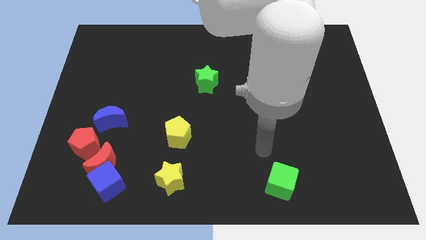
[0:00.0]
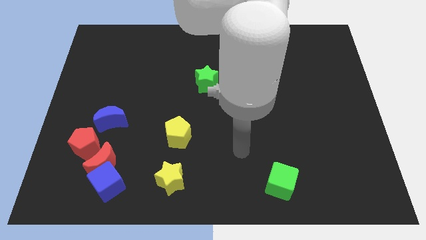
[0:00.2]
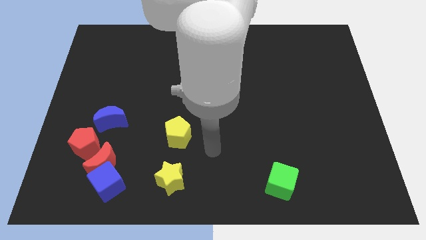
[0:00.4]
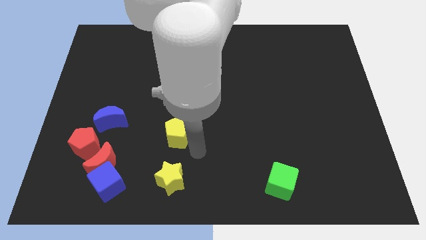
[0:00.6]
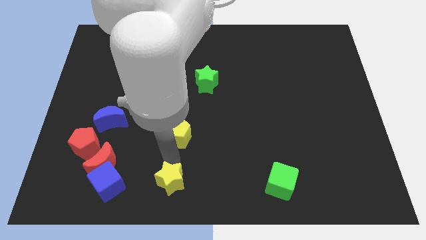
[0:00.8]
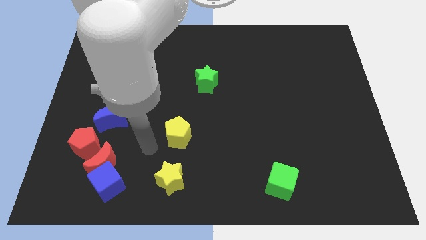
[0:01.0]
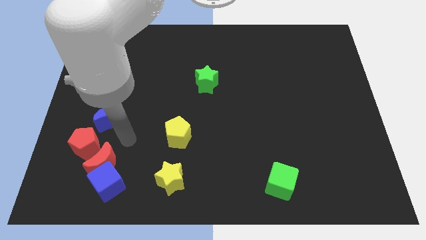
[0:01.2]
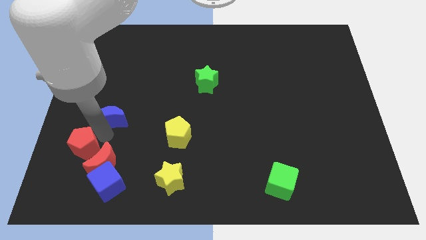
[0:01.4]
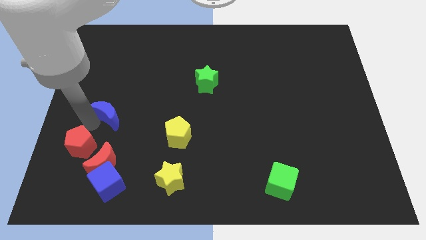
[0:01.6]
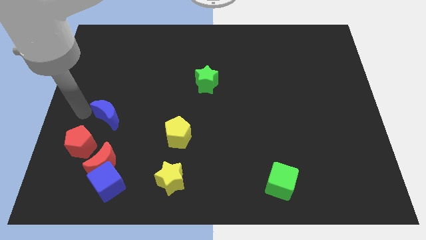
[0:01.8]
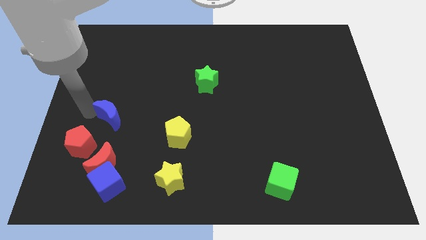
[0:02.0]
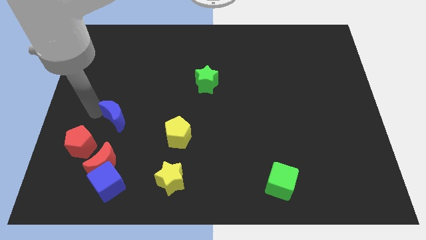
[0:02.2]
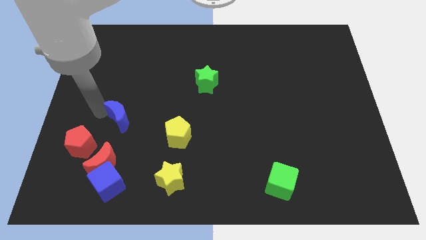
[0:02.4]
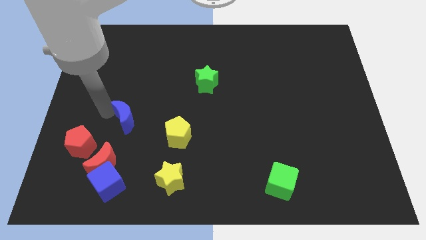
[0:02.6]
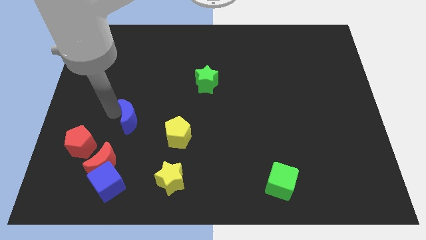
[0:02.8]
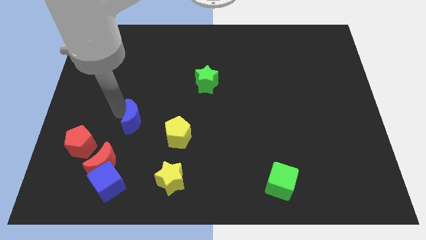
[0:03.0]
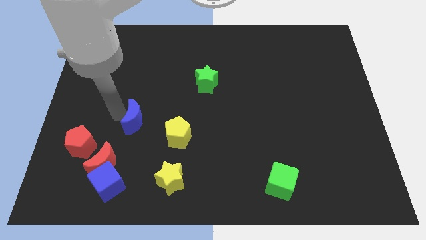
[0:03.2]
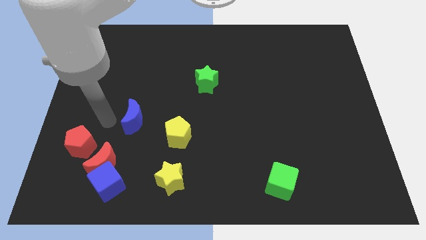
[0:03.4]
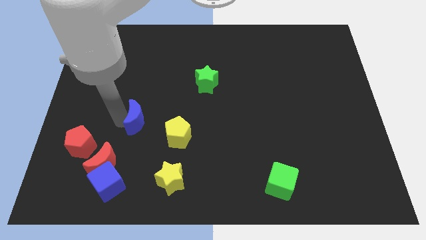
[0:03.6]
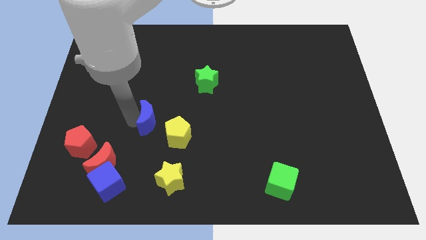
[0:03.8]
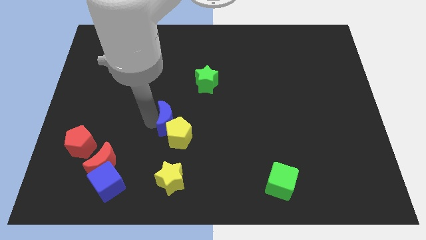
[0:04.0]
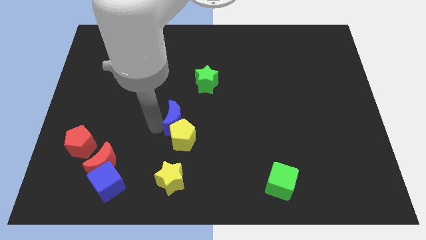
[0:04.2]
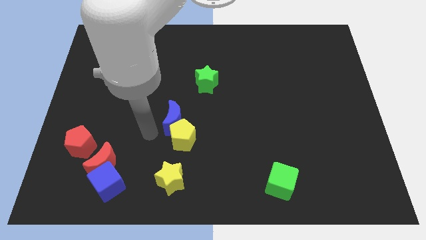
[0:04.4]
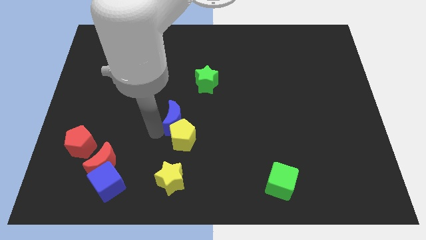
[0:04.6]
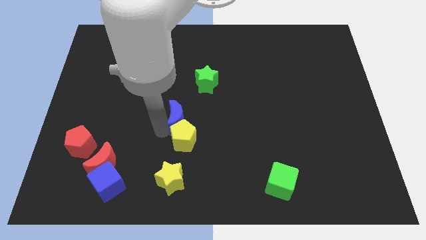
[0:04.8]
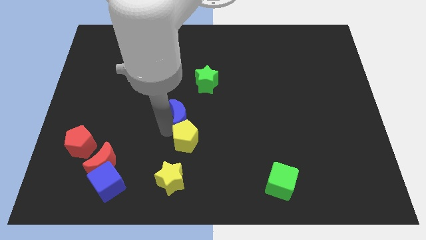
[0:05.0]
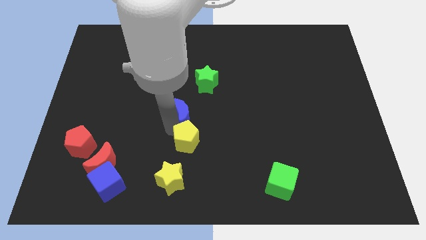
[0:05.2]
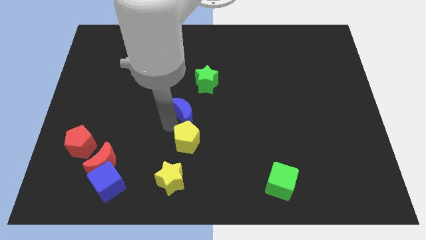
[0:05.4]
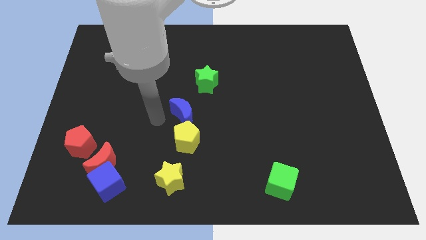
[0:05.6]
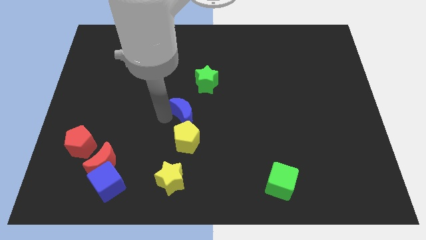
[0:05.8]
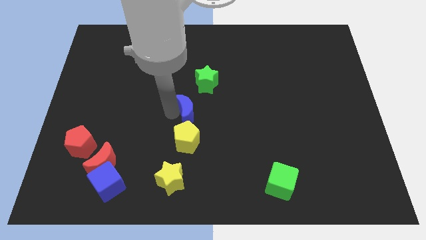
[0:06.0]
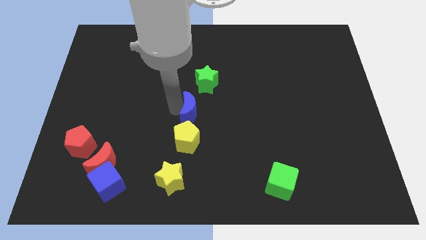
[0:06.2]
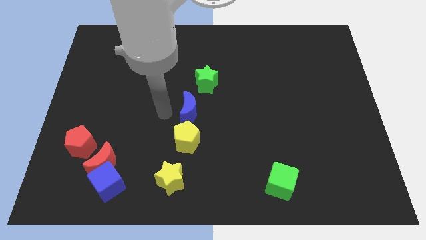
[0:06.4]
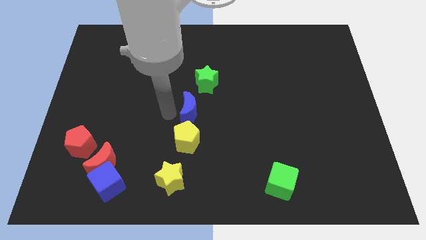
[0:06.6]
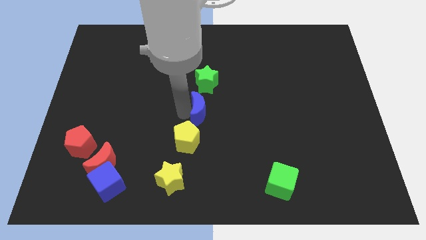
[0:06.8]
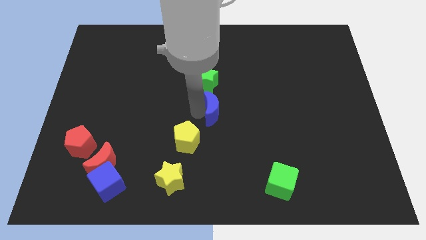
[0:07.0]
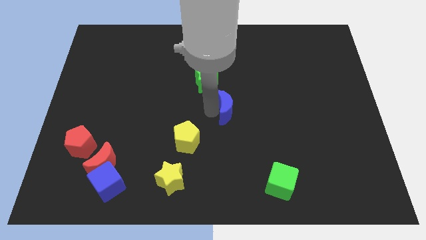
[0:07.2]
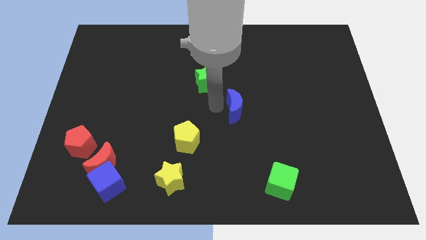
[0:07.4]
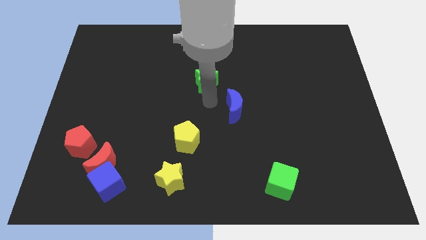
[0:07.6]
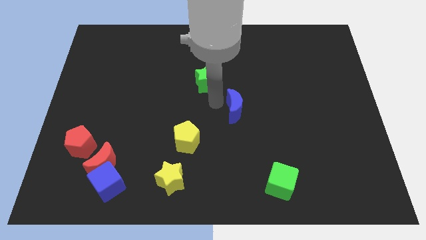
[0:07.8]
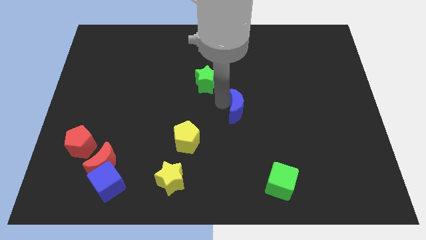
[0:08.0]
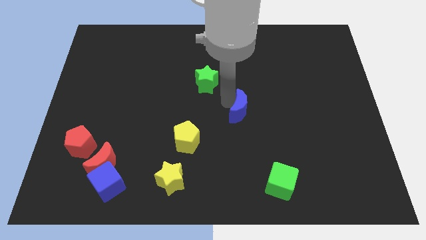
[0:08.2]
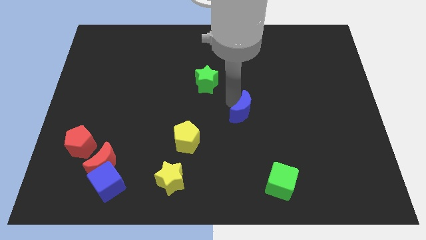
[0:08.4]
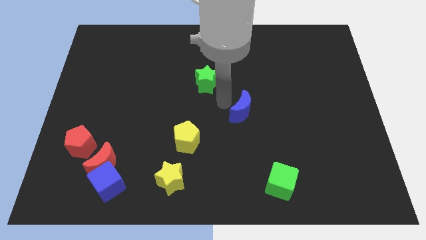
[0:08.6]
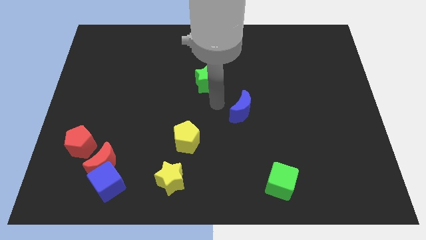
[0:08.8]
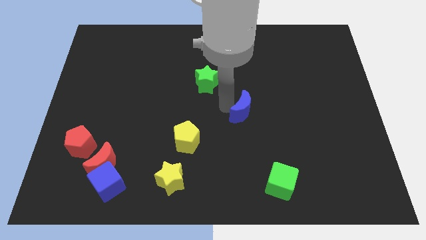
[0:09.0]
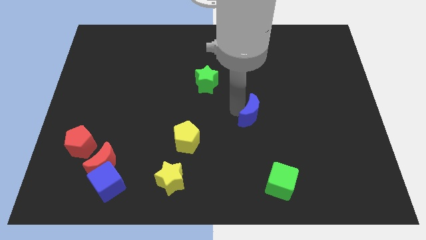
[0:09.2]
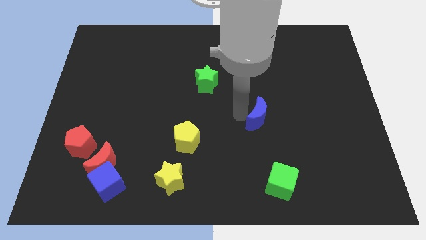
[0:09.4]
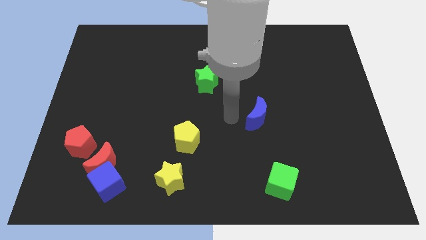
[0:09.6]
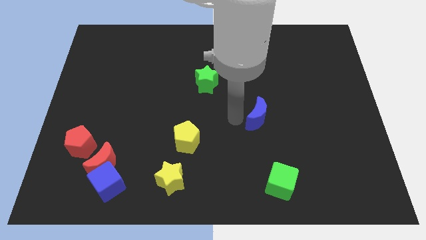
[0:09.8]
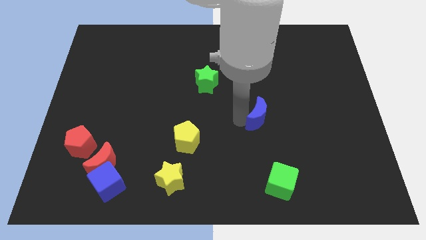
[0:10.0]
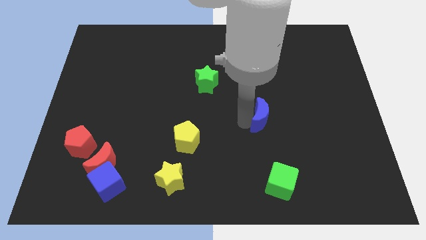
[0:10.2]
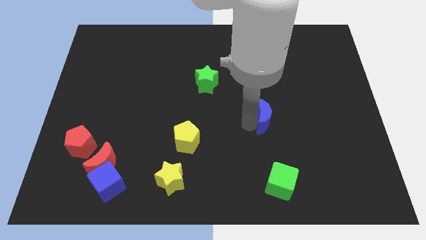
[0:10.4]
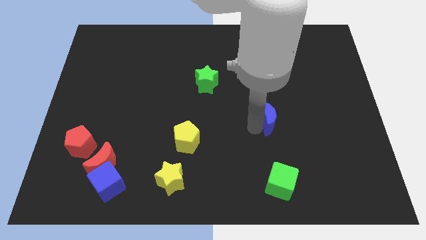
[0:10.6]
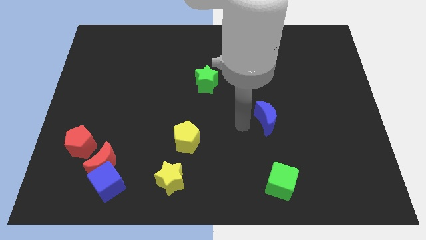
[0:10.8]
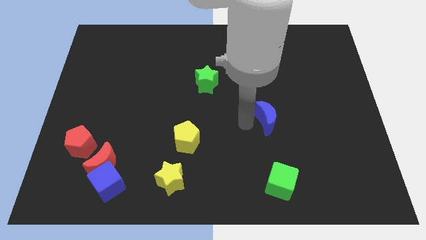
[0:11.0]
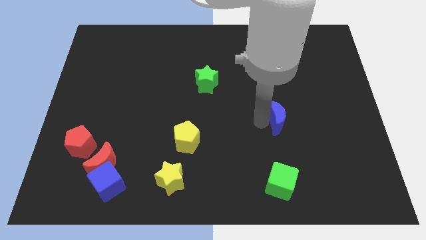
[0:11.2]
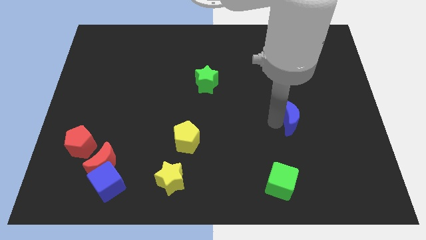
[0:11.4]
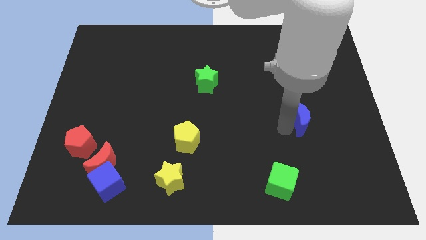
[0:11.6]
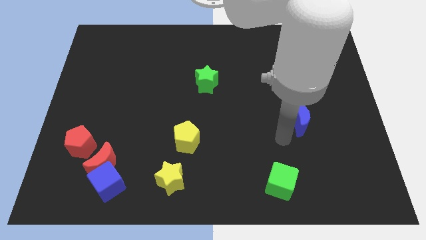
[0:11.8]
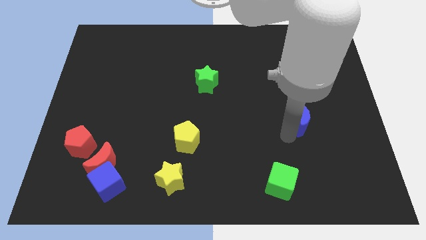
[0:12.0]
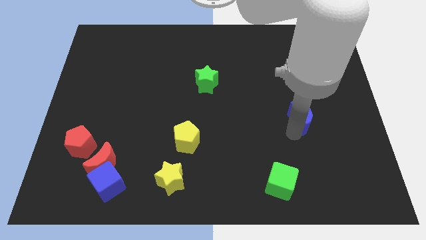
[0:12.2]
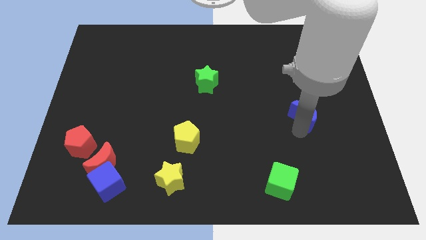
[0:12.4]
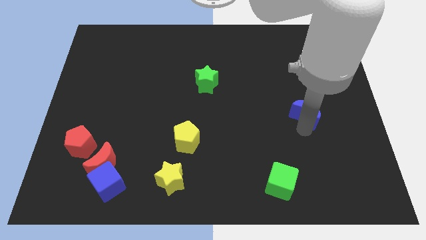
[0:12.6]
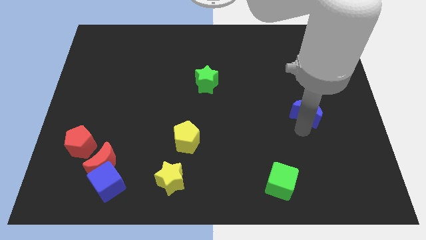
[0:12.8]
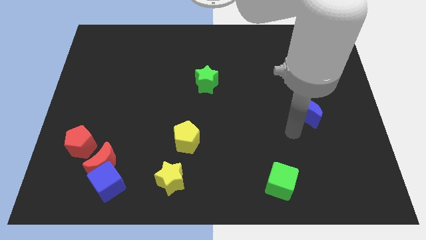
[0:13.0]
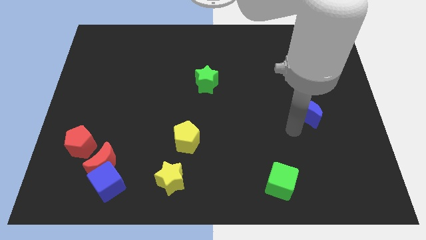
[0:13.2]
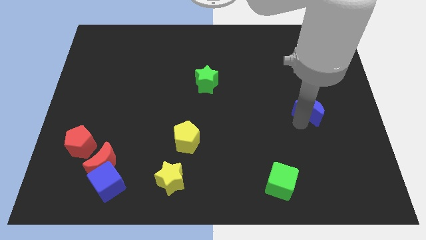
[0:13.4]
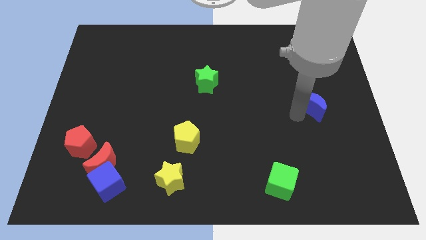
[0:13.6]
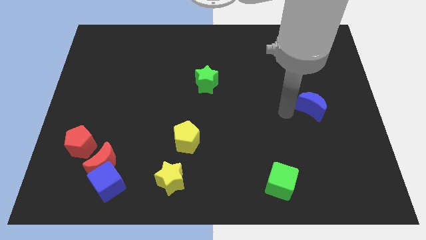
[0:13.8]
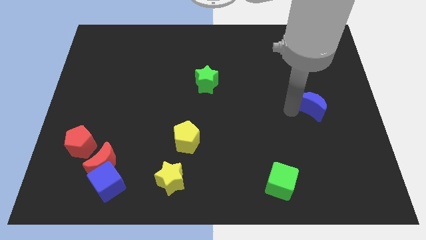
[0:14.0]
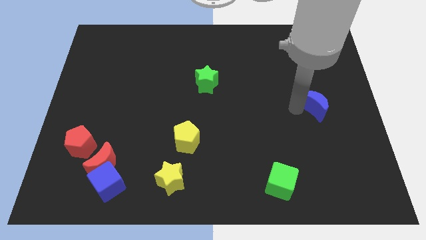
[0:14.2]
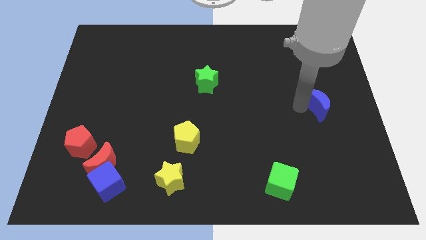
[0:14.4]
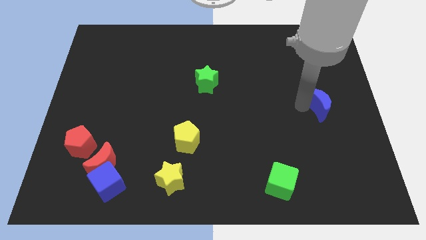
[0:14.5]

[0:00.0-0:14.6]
put the blue moon to the right side
